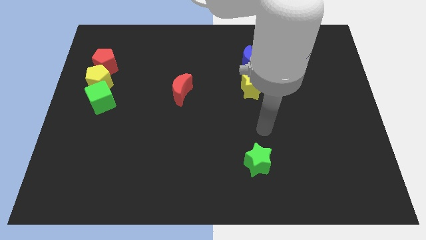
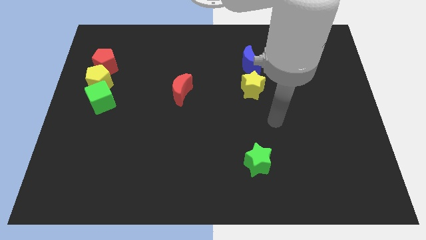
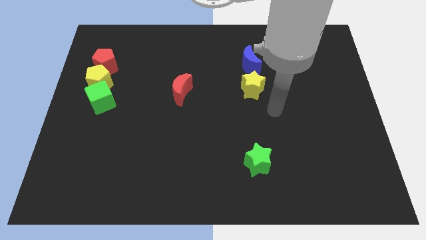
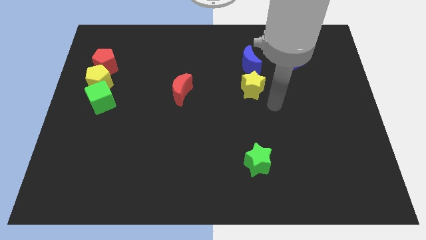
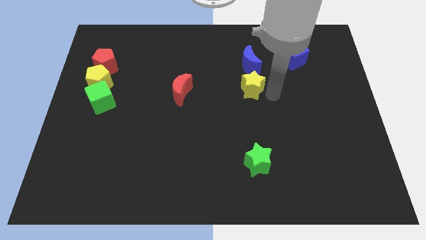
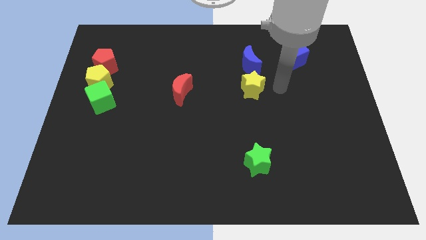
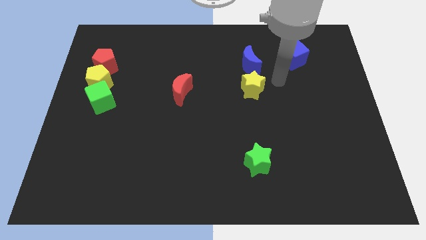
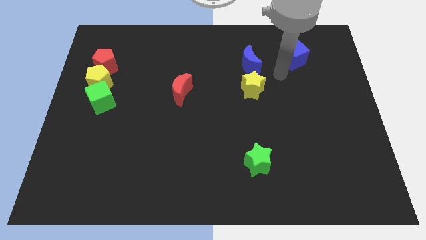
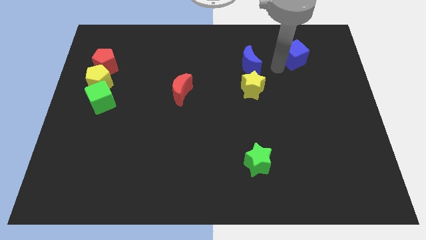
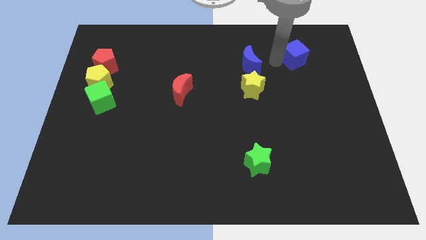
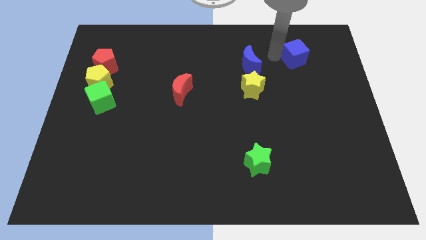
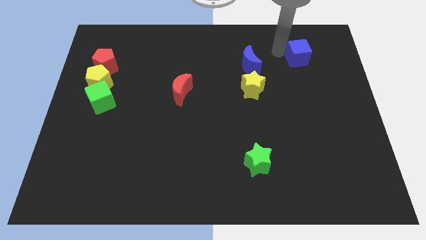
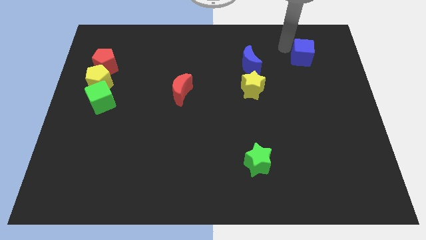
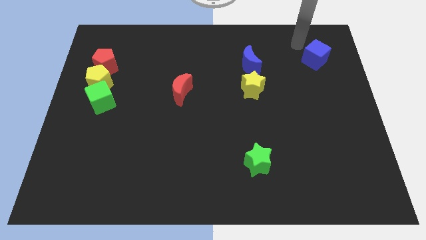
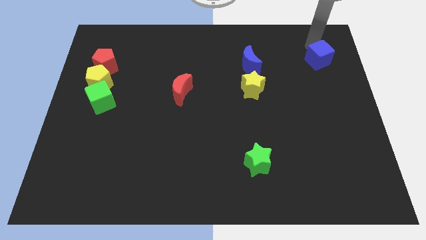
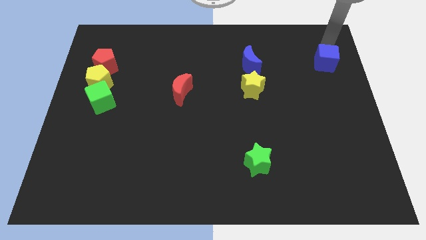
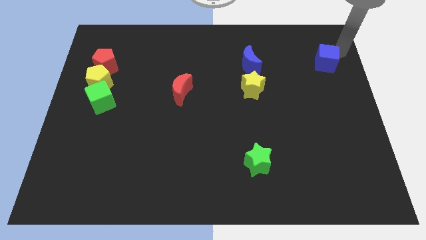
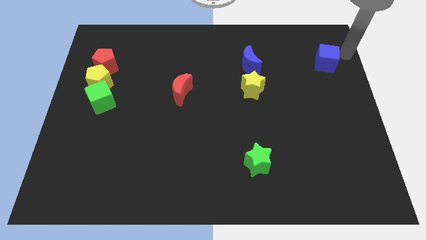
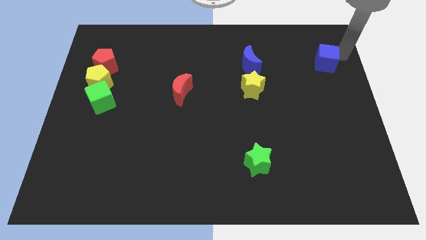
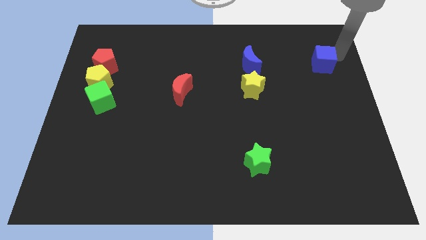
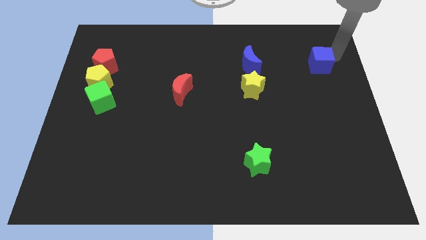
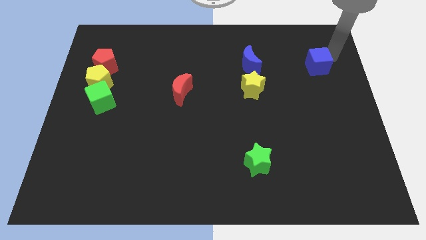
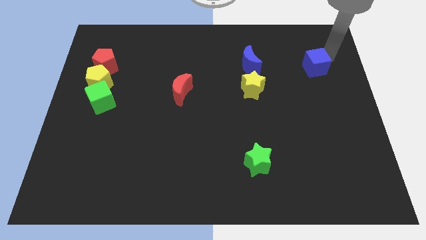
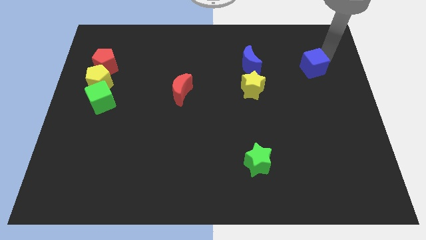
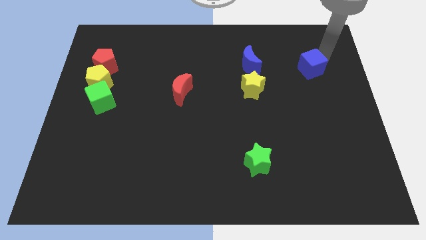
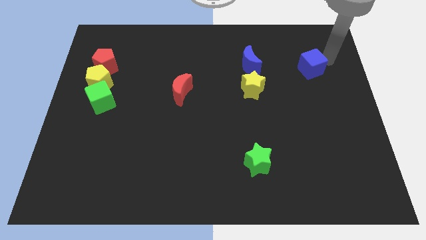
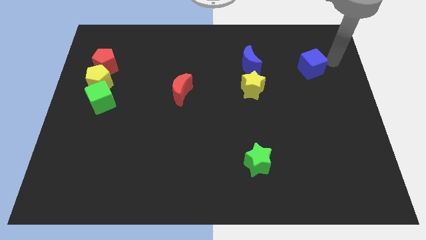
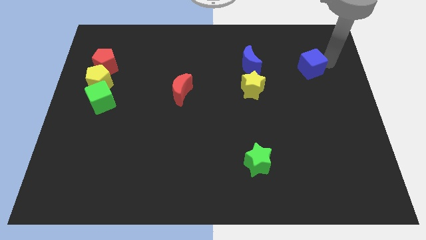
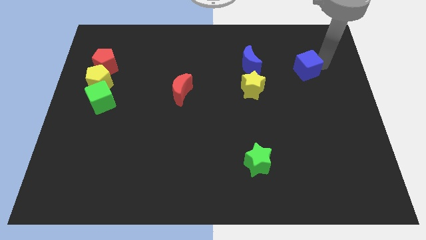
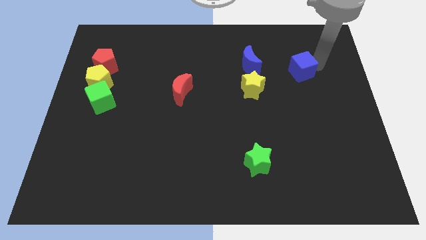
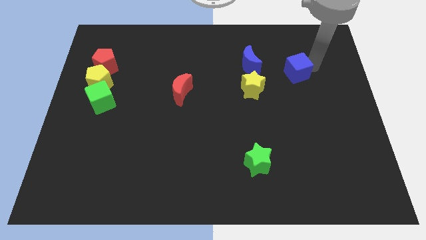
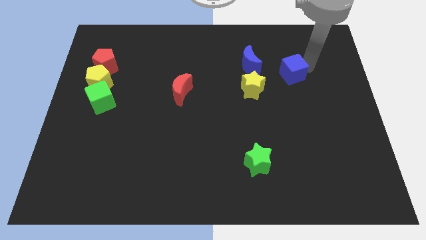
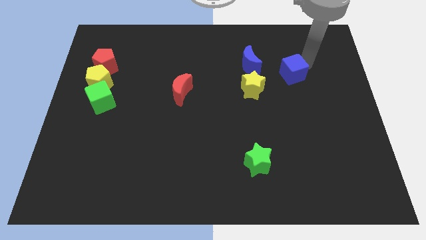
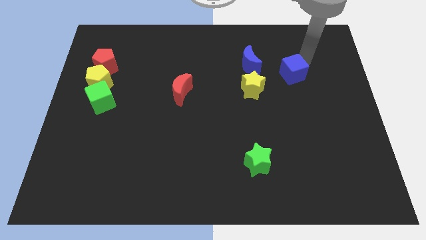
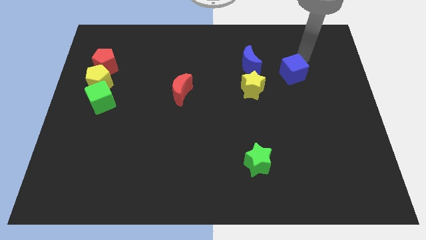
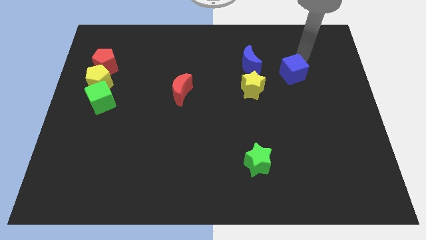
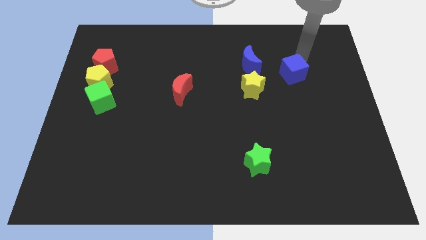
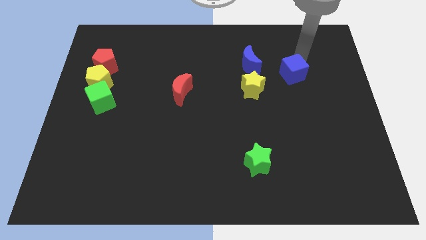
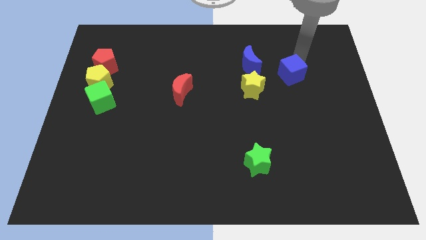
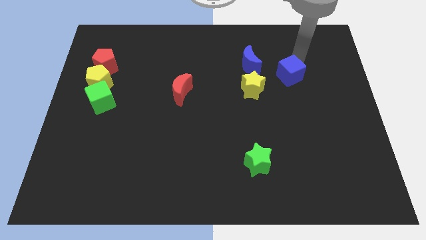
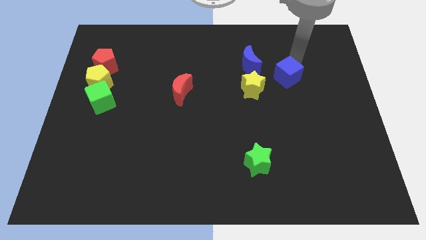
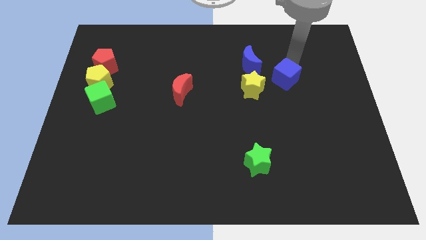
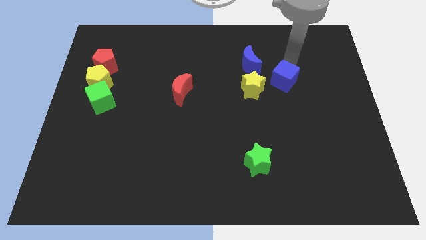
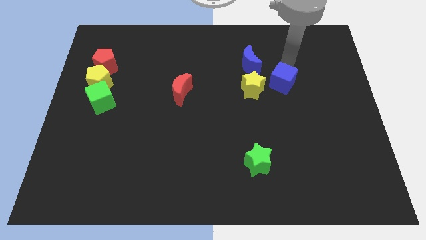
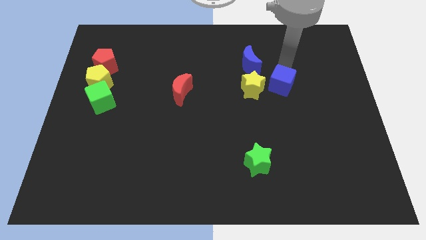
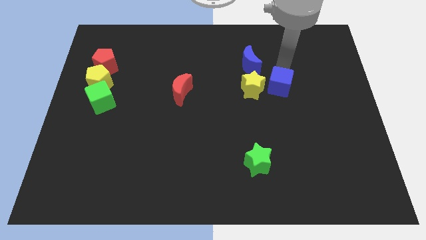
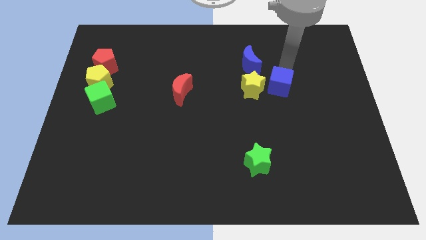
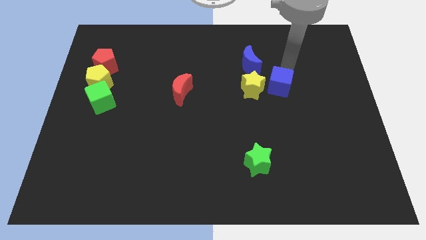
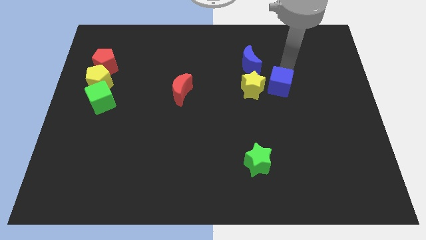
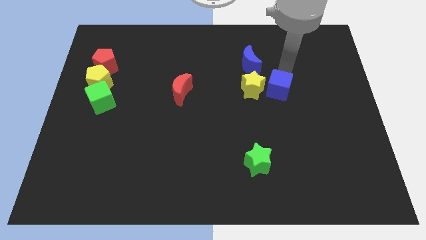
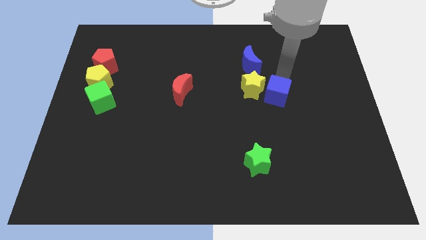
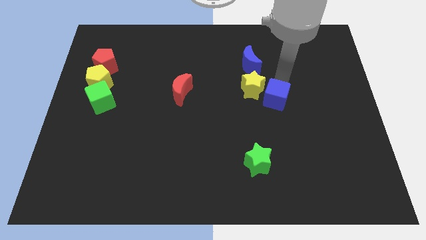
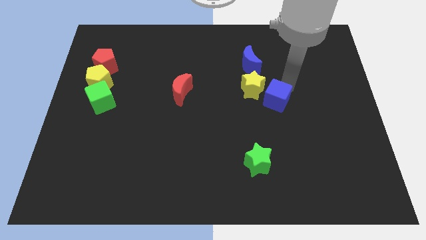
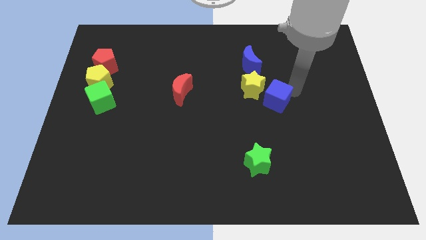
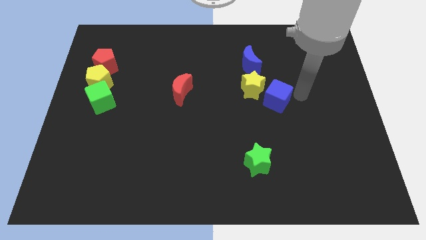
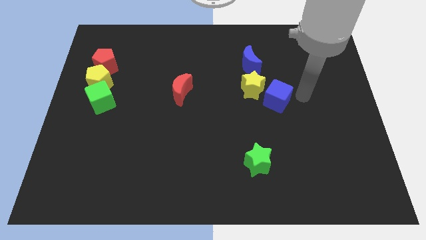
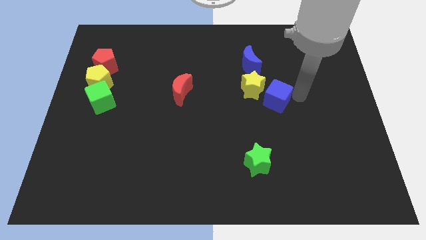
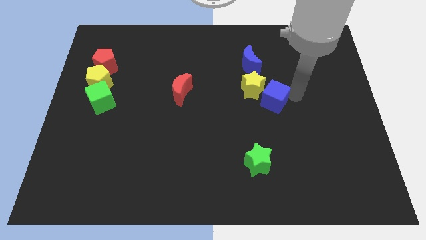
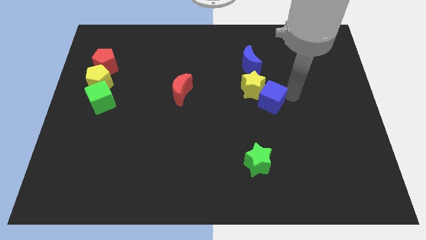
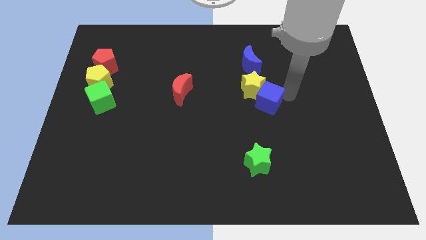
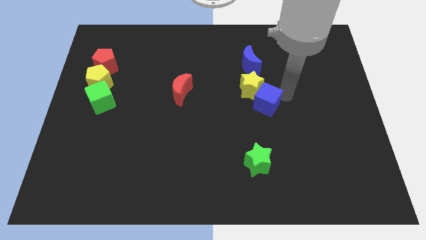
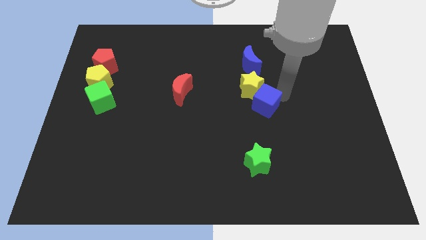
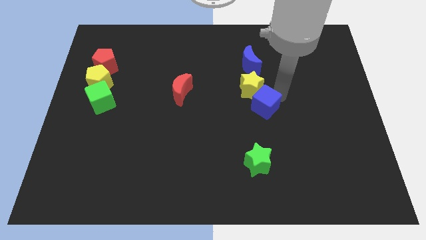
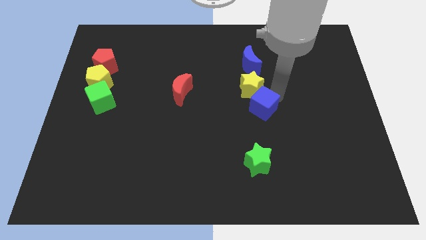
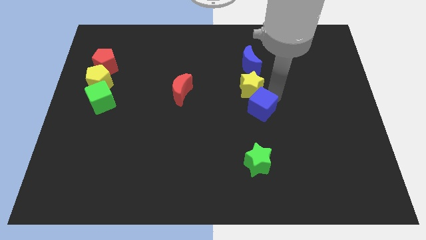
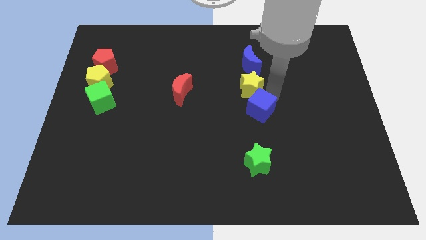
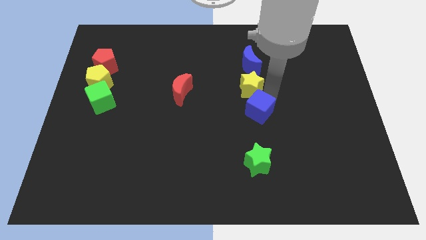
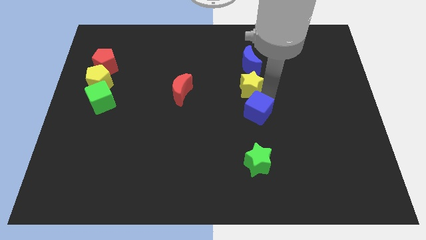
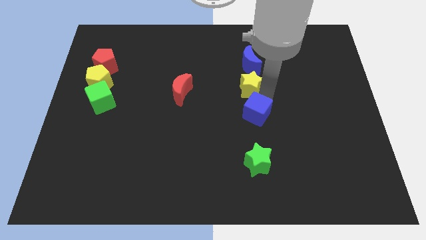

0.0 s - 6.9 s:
slide the blue cube diagonally downwards and left

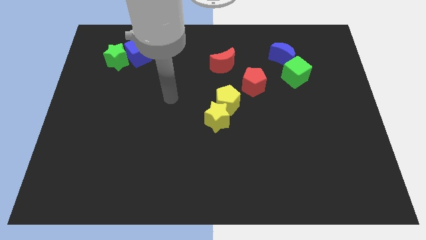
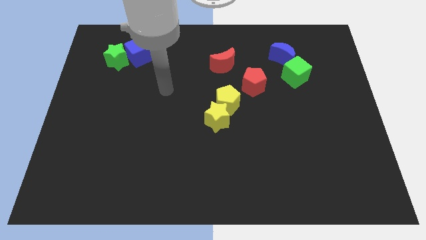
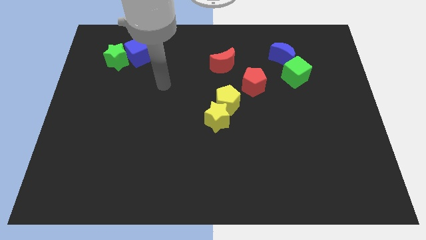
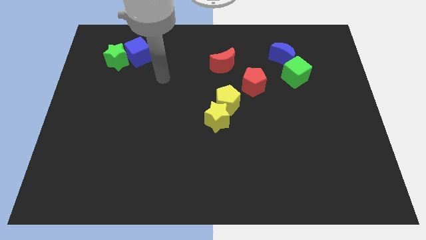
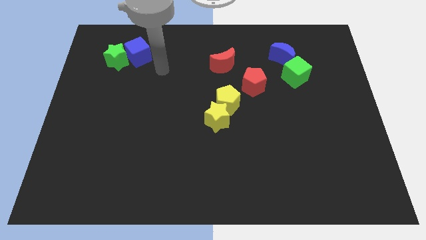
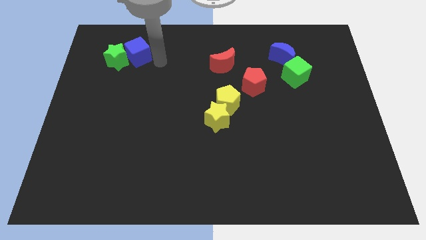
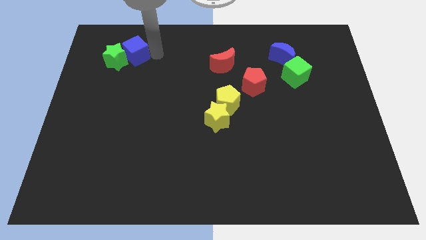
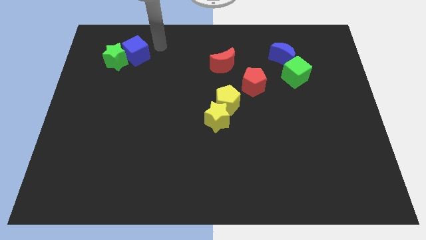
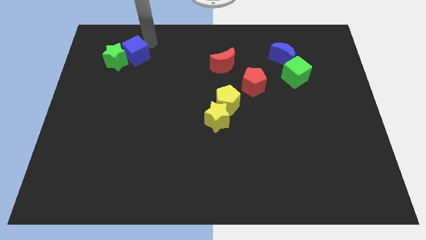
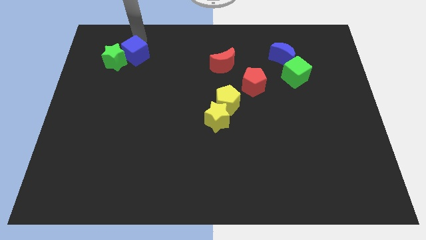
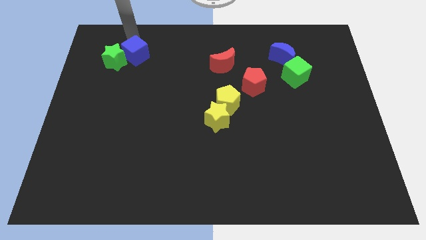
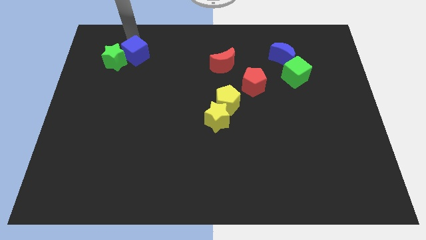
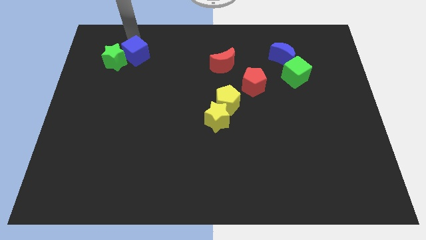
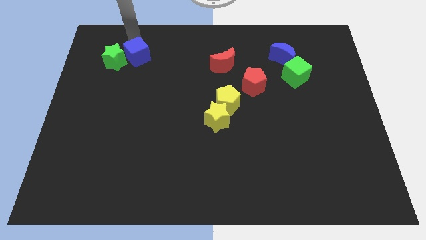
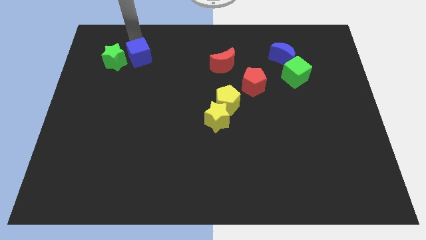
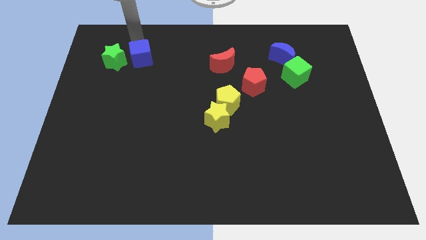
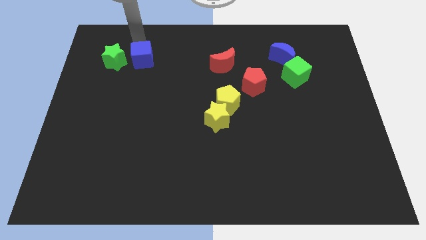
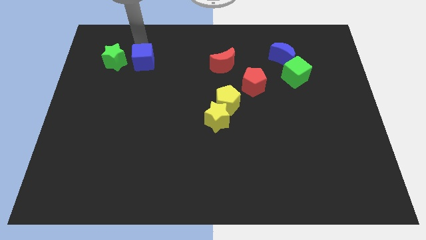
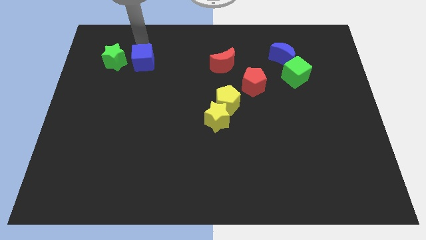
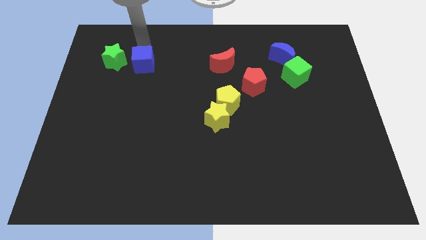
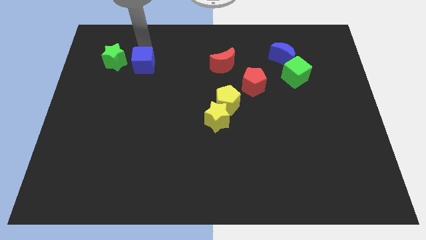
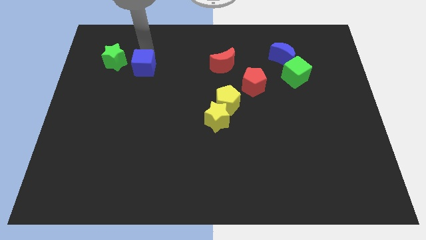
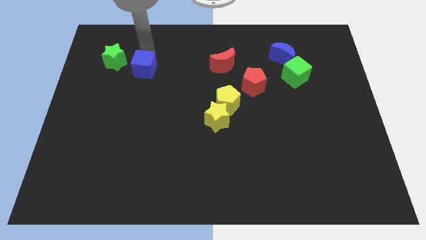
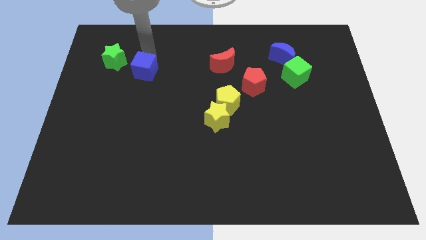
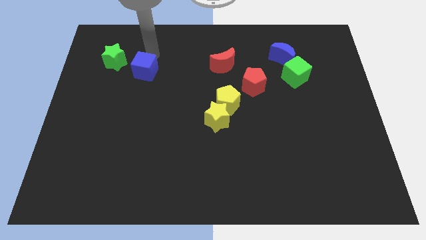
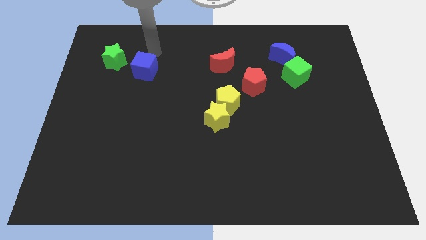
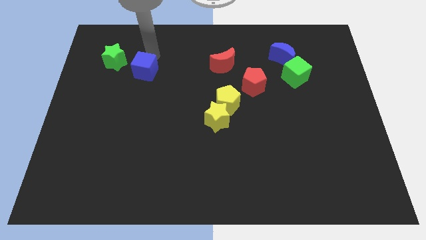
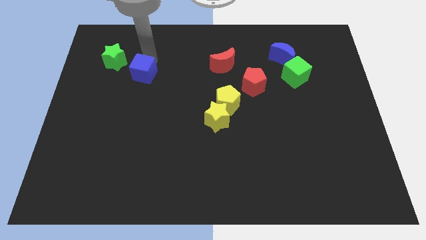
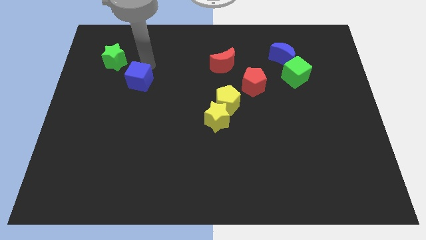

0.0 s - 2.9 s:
slide the blue cube downwards a little
